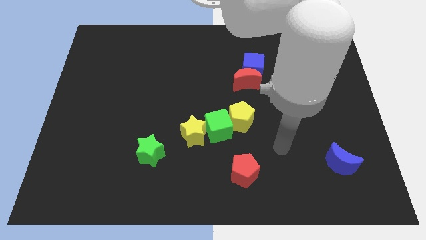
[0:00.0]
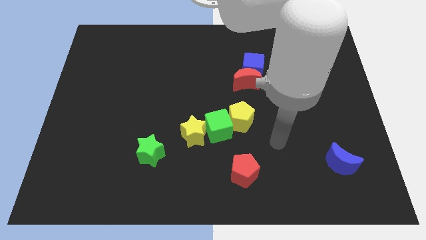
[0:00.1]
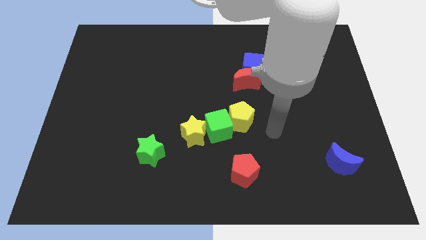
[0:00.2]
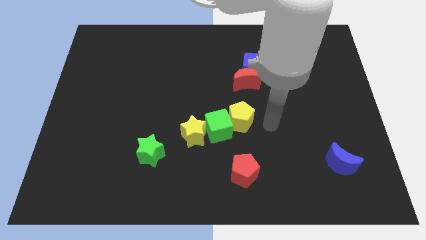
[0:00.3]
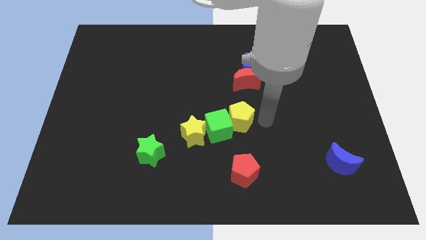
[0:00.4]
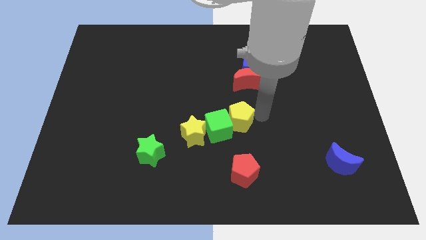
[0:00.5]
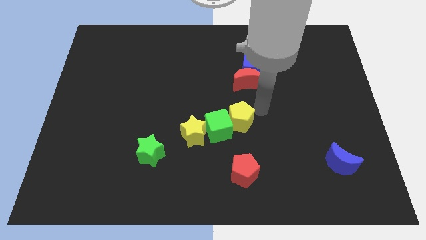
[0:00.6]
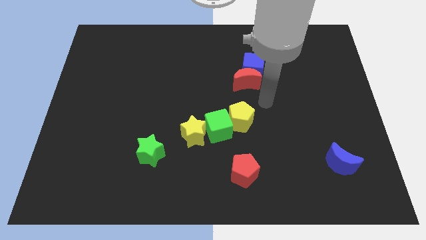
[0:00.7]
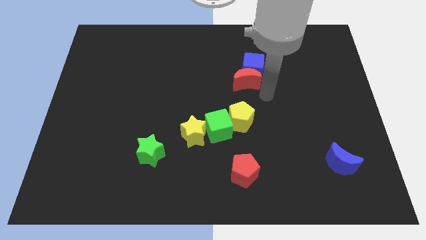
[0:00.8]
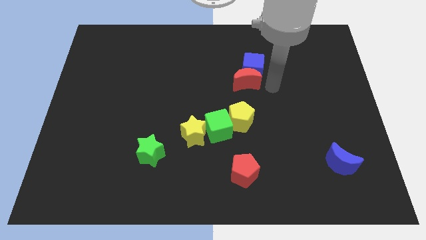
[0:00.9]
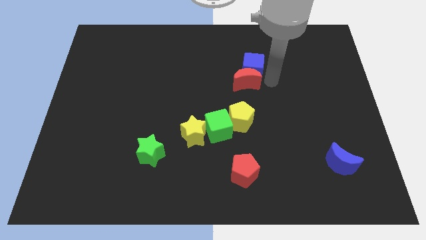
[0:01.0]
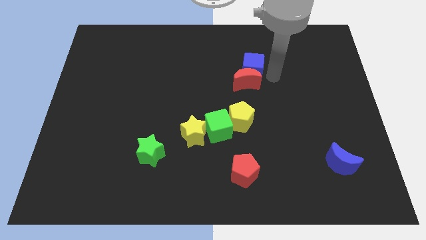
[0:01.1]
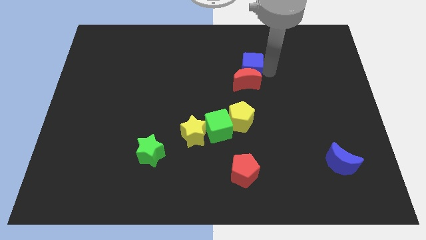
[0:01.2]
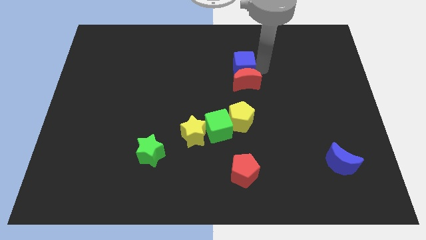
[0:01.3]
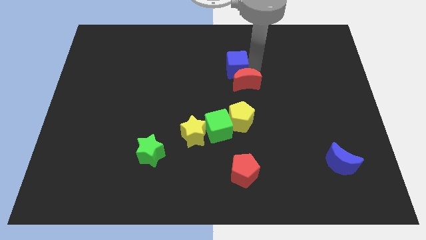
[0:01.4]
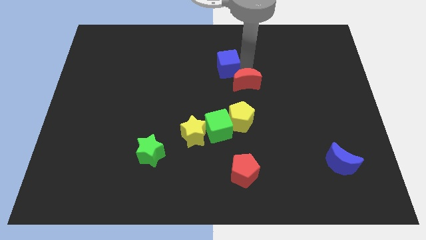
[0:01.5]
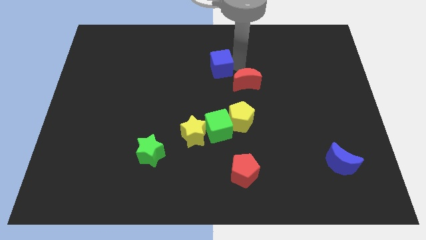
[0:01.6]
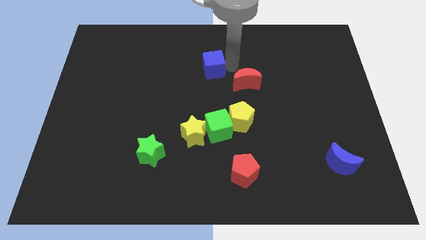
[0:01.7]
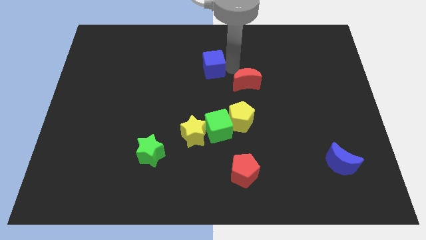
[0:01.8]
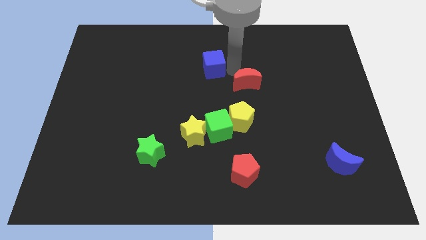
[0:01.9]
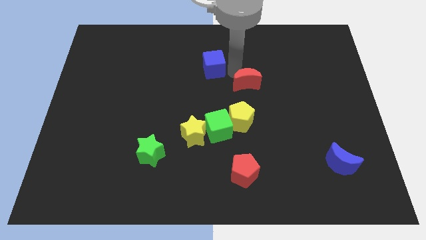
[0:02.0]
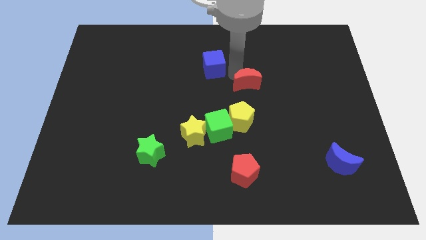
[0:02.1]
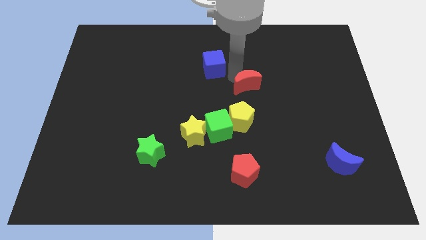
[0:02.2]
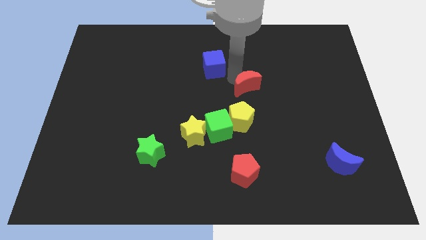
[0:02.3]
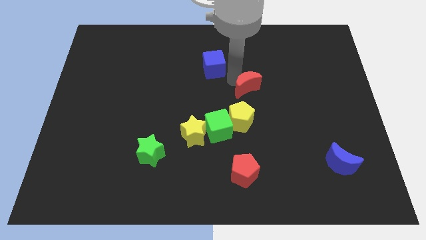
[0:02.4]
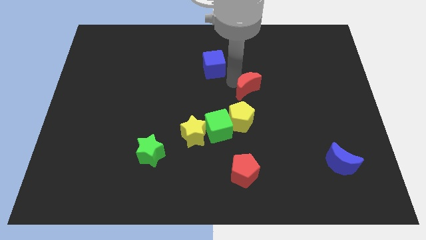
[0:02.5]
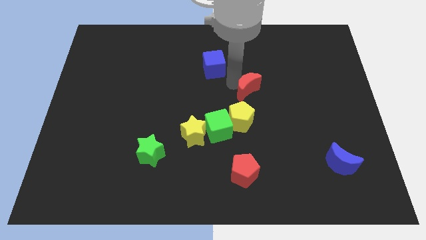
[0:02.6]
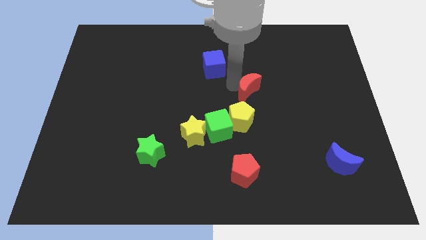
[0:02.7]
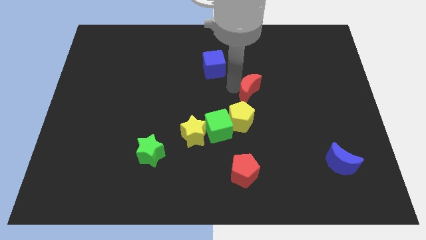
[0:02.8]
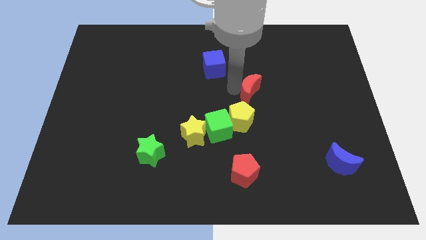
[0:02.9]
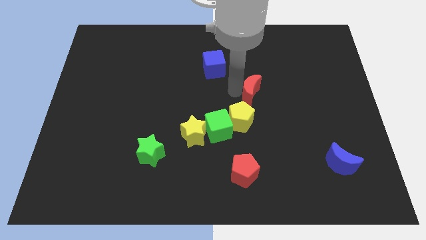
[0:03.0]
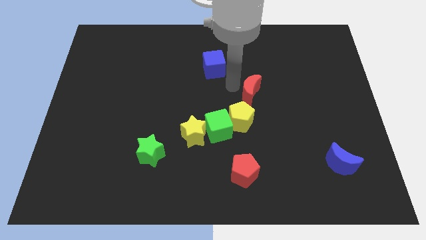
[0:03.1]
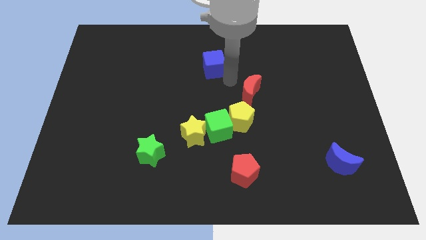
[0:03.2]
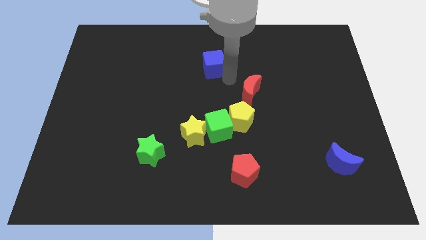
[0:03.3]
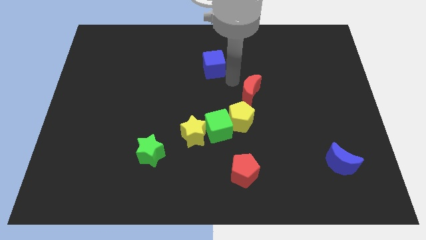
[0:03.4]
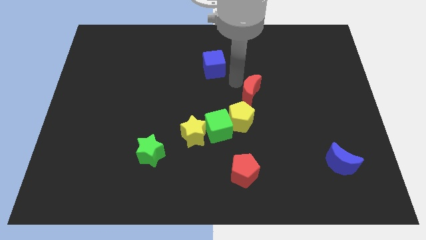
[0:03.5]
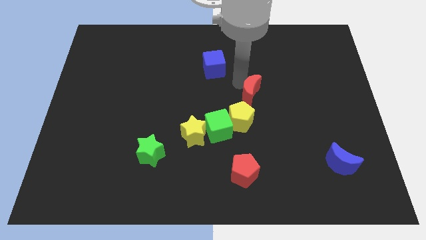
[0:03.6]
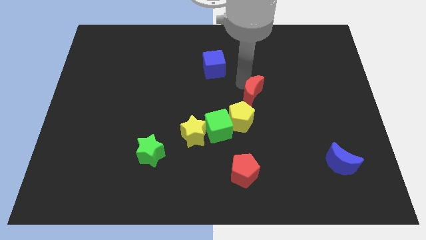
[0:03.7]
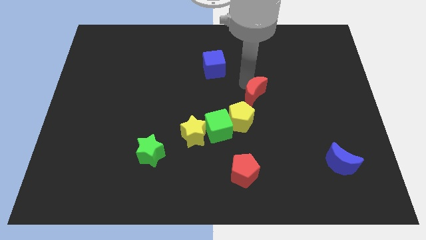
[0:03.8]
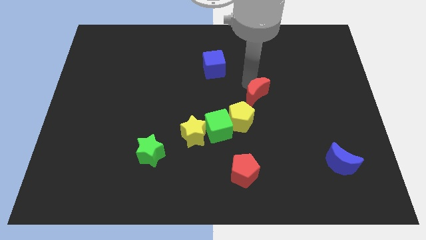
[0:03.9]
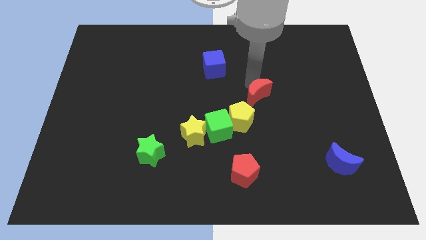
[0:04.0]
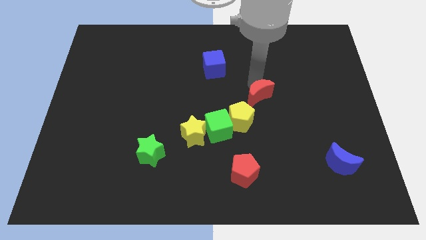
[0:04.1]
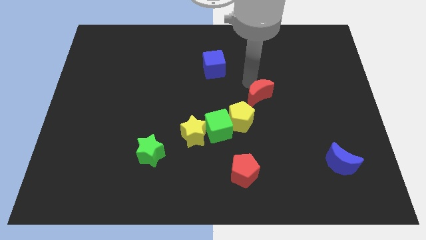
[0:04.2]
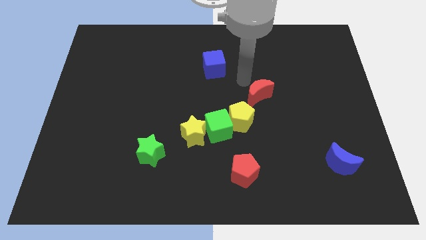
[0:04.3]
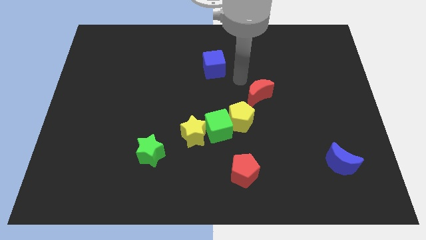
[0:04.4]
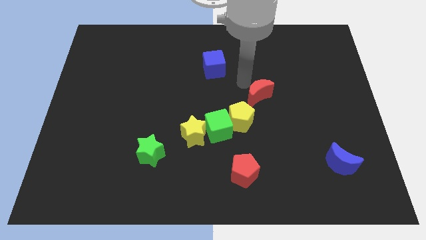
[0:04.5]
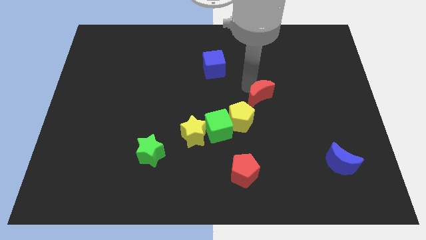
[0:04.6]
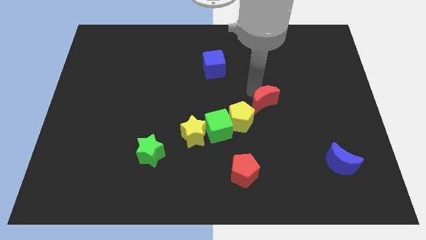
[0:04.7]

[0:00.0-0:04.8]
slide the red moon slightly downwards and then to the right

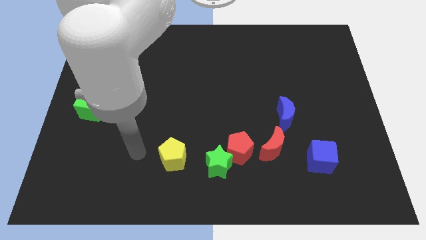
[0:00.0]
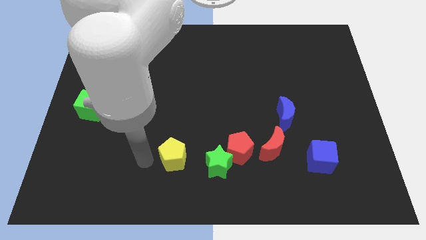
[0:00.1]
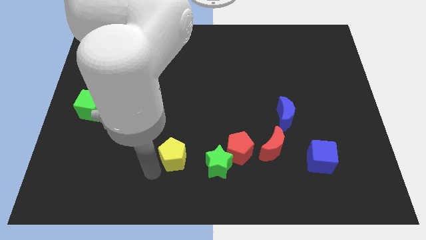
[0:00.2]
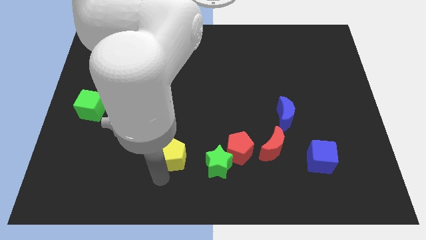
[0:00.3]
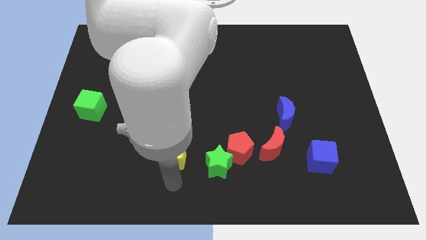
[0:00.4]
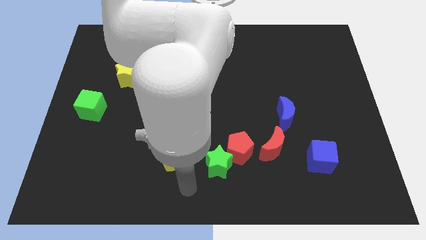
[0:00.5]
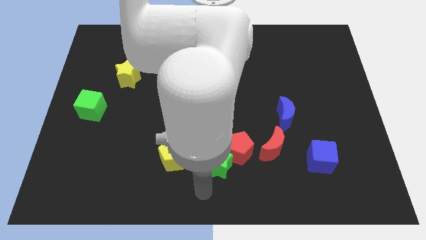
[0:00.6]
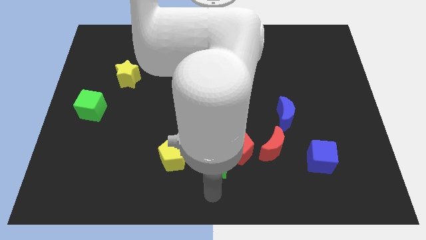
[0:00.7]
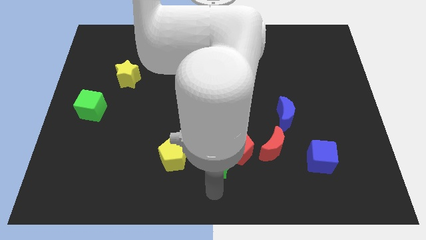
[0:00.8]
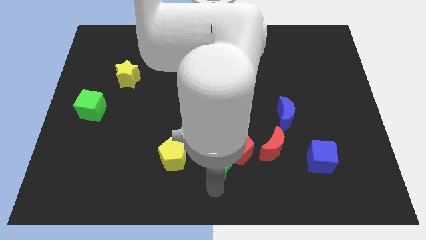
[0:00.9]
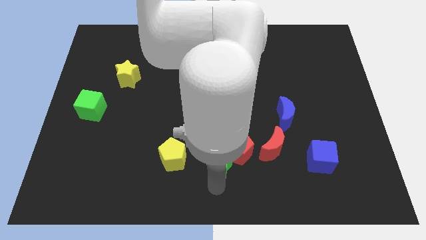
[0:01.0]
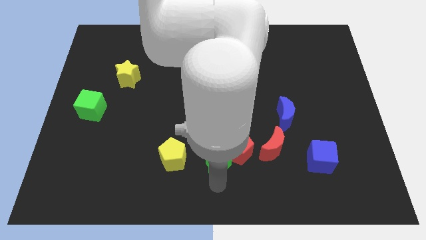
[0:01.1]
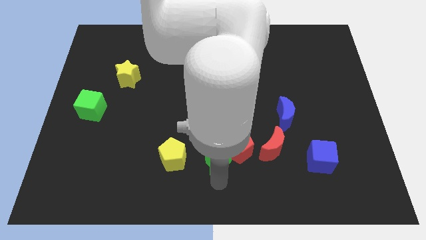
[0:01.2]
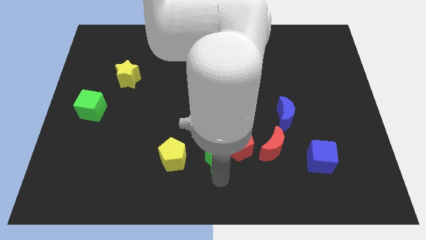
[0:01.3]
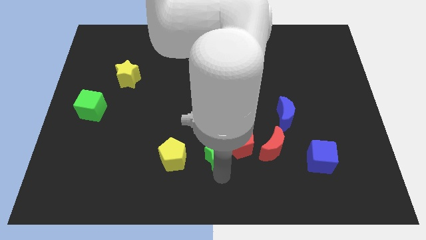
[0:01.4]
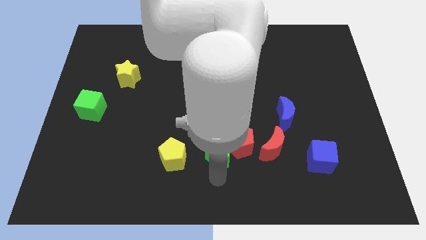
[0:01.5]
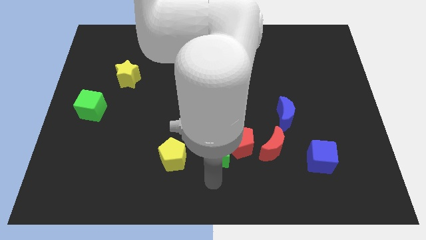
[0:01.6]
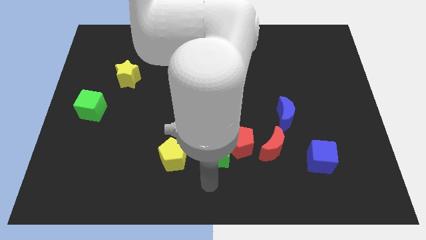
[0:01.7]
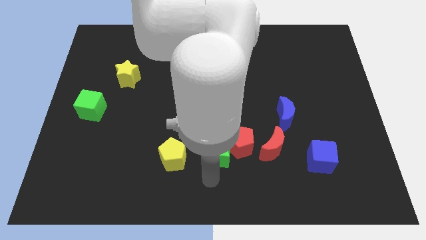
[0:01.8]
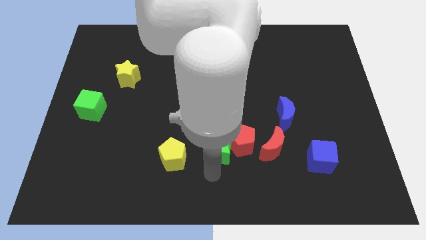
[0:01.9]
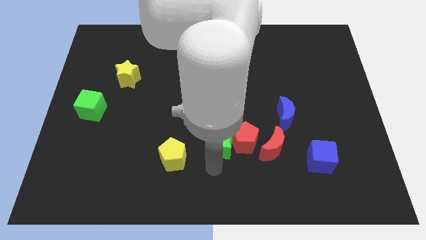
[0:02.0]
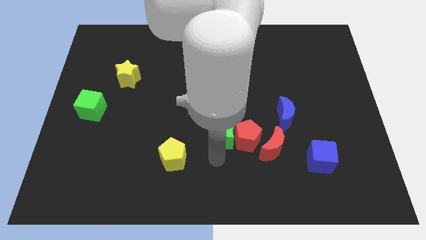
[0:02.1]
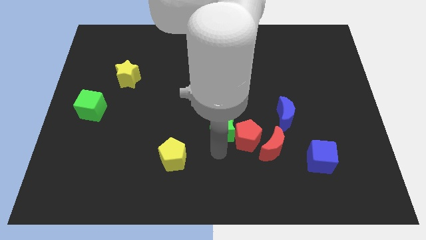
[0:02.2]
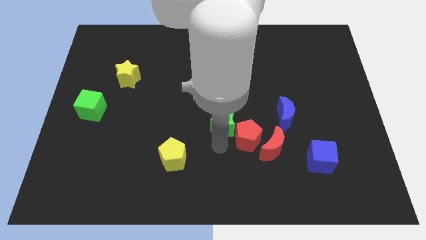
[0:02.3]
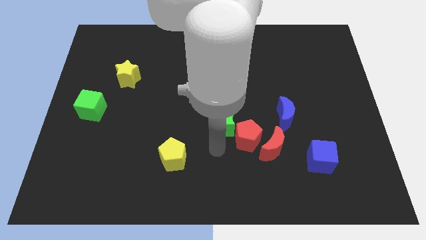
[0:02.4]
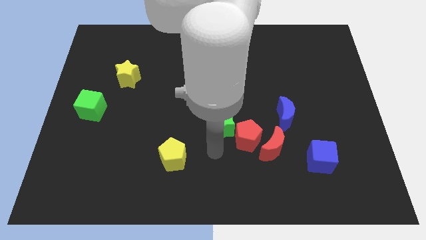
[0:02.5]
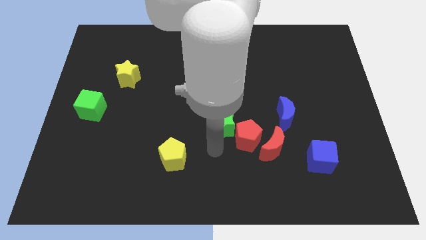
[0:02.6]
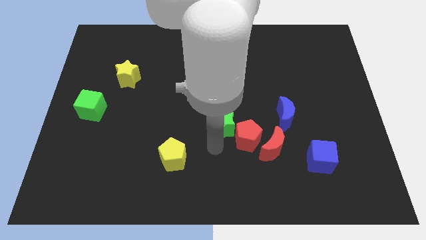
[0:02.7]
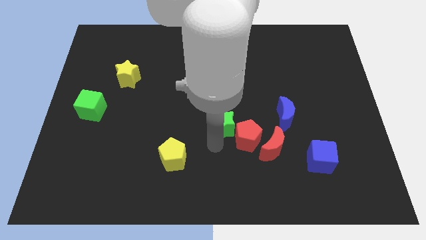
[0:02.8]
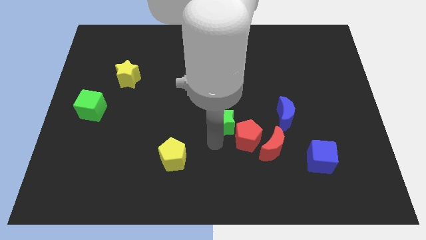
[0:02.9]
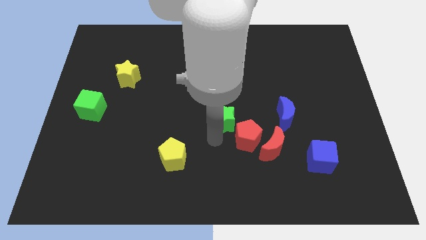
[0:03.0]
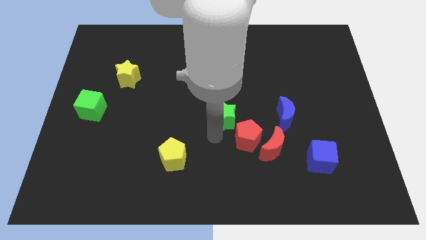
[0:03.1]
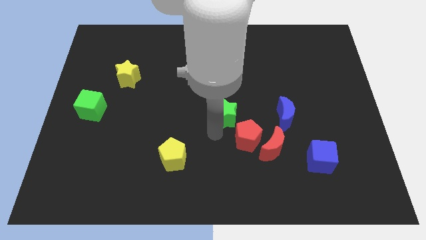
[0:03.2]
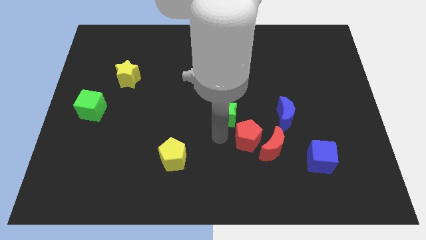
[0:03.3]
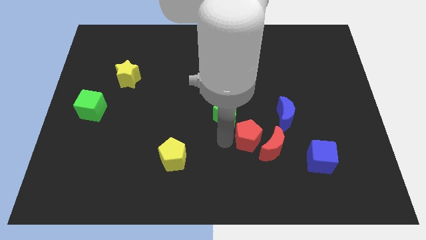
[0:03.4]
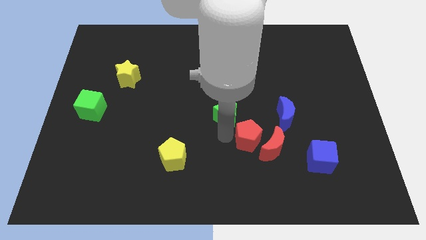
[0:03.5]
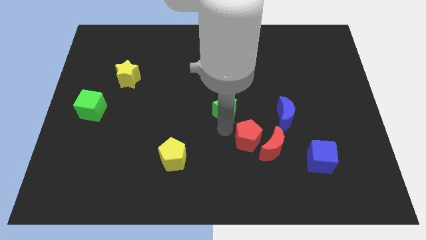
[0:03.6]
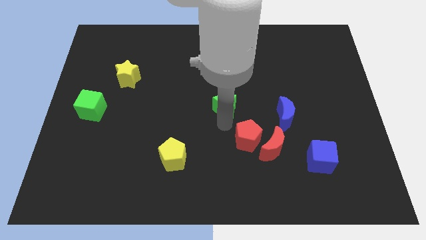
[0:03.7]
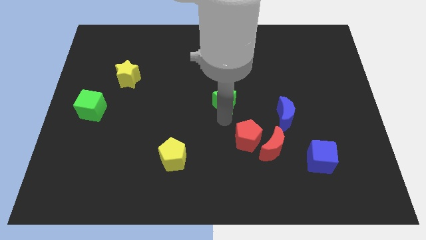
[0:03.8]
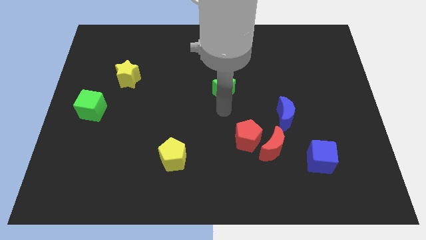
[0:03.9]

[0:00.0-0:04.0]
slide the green star upwards
